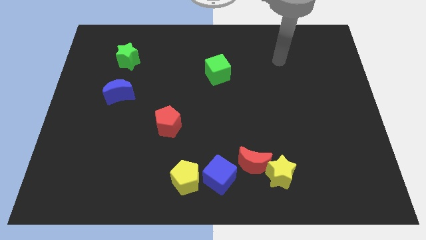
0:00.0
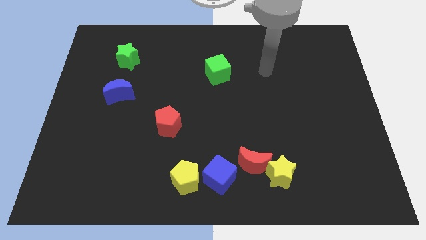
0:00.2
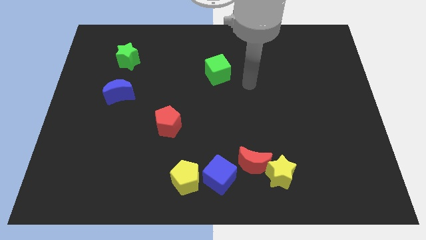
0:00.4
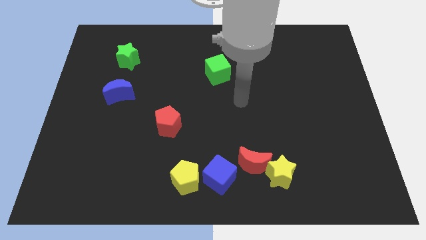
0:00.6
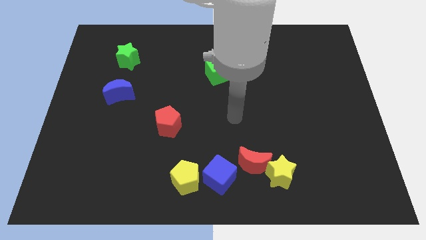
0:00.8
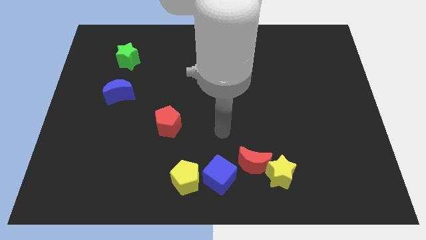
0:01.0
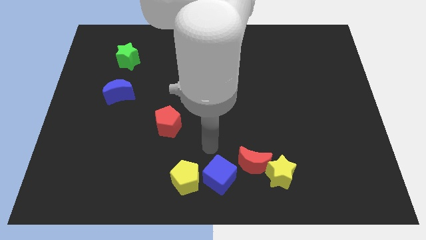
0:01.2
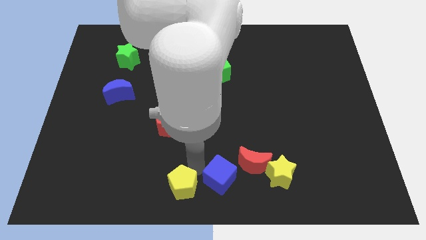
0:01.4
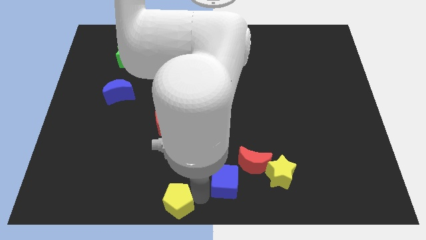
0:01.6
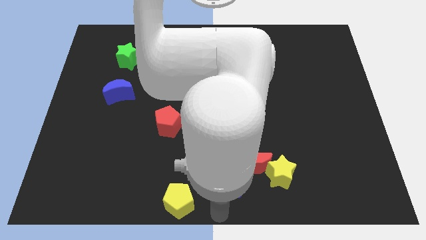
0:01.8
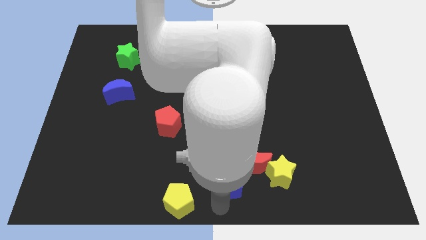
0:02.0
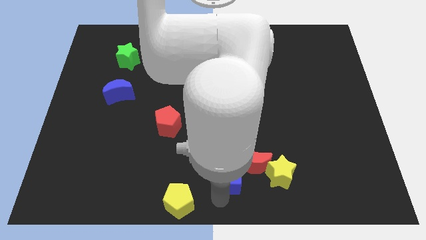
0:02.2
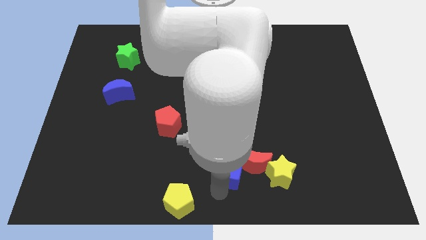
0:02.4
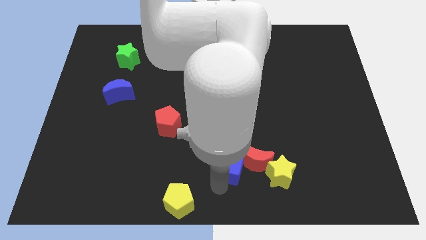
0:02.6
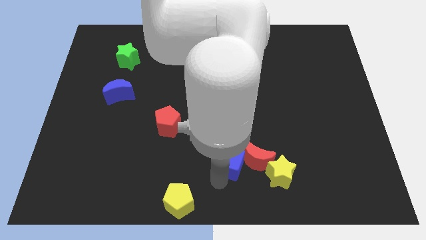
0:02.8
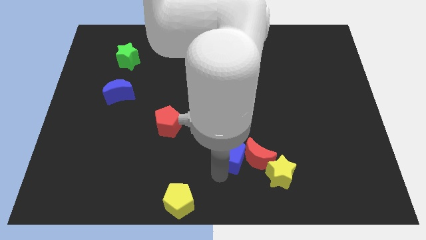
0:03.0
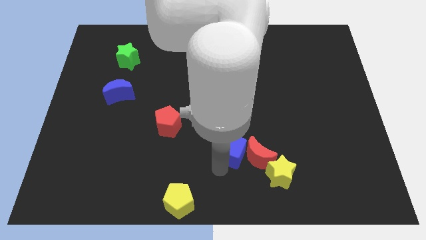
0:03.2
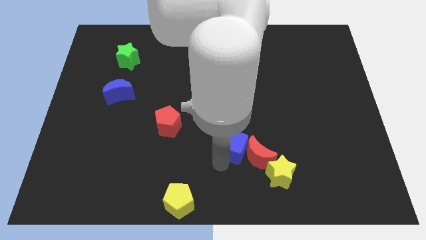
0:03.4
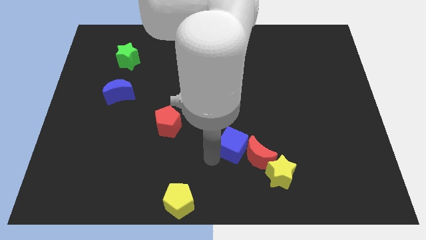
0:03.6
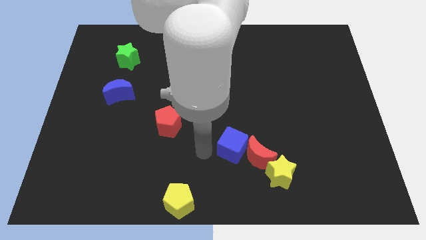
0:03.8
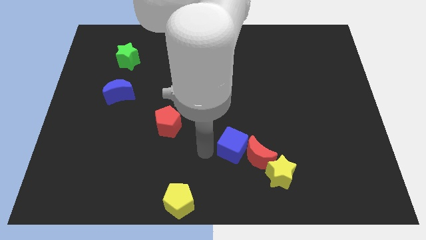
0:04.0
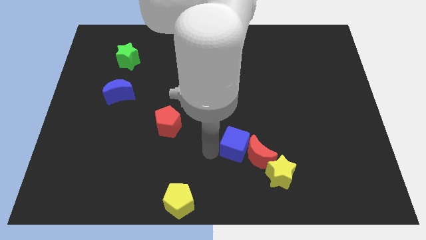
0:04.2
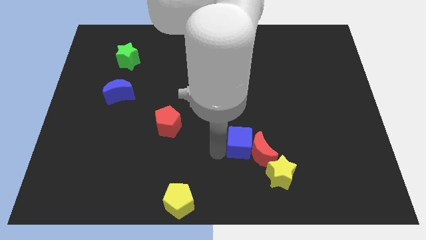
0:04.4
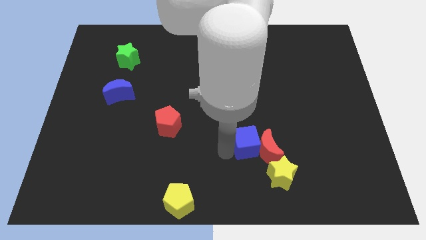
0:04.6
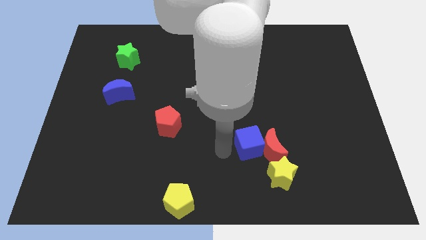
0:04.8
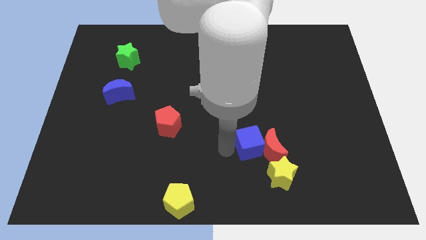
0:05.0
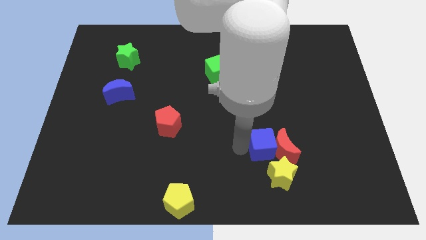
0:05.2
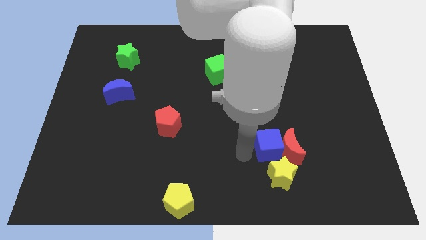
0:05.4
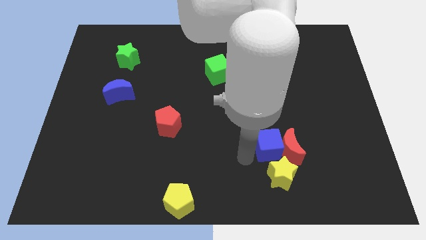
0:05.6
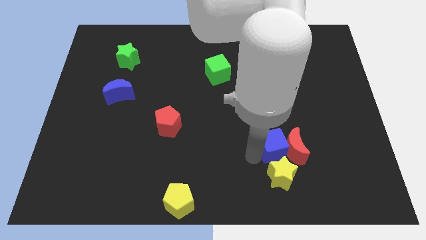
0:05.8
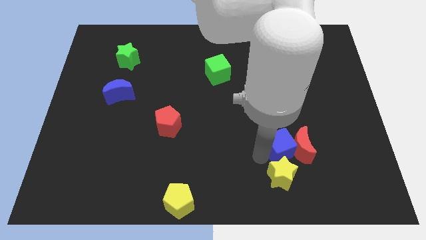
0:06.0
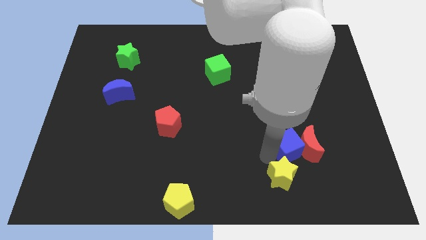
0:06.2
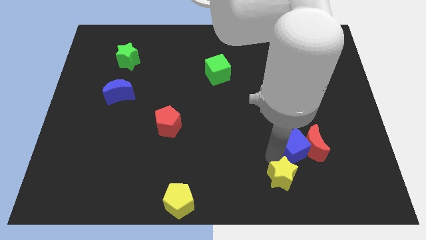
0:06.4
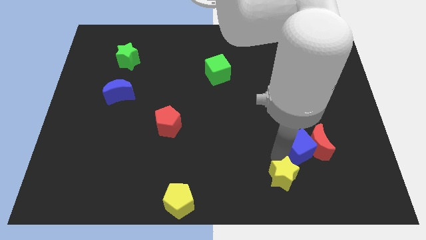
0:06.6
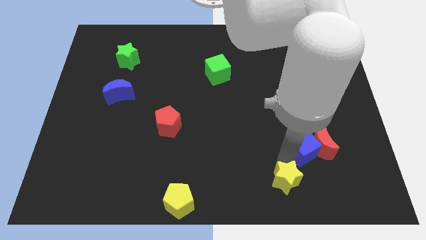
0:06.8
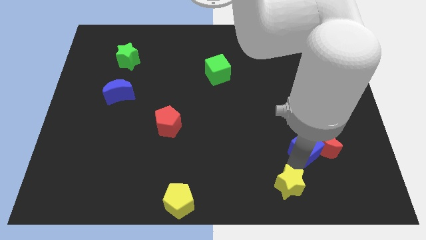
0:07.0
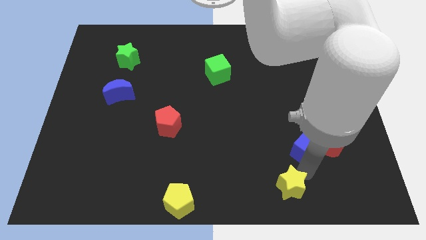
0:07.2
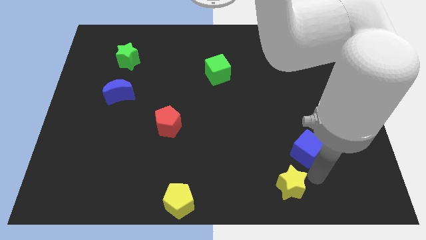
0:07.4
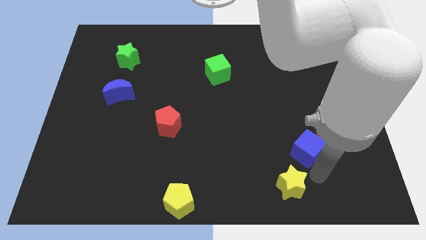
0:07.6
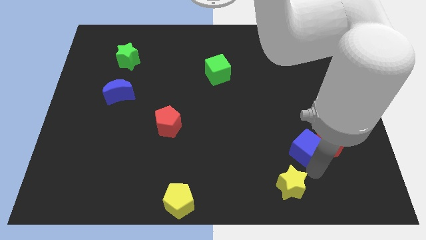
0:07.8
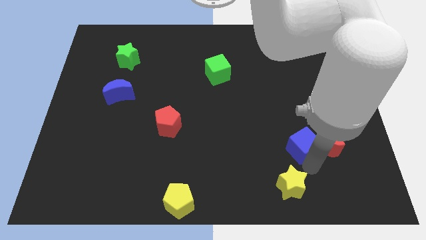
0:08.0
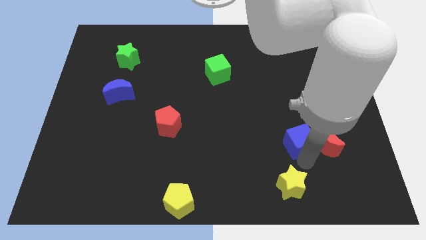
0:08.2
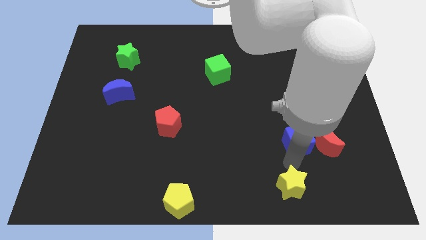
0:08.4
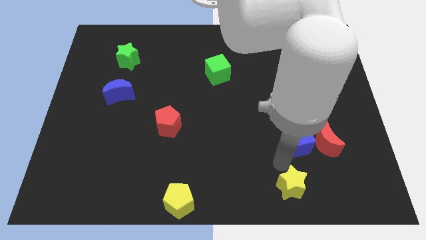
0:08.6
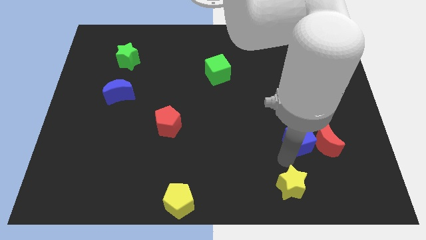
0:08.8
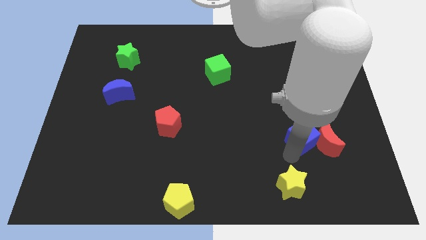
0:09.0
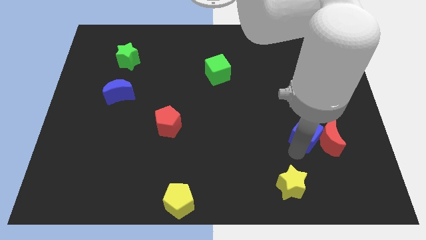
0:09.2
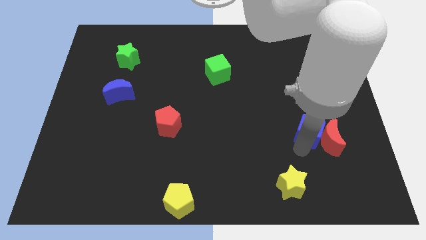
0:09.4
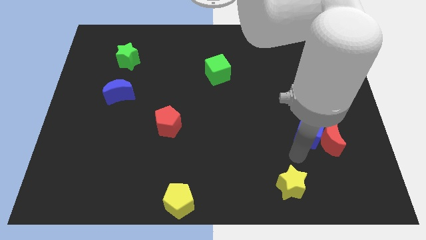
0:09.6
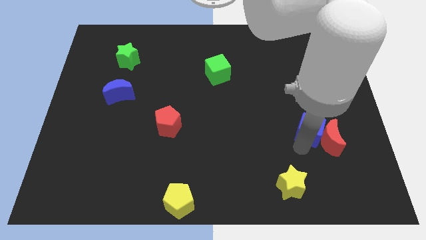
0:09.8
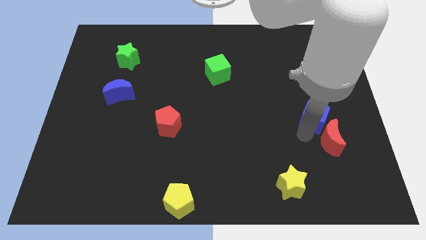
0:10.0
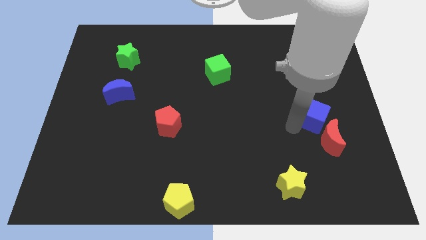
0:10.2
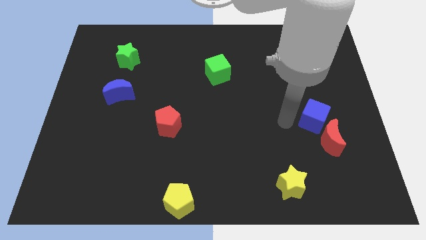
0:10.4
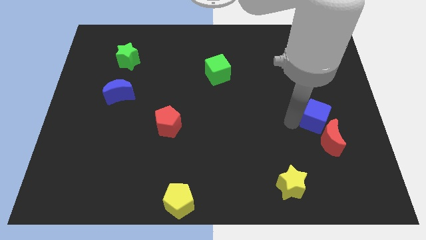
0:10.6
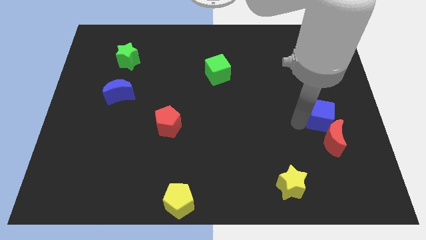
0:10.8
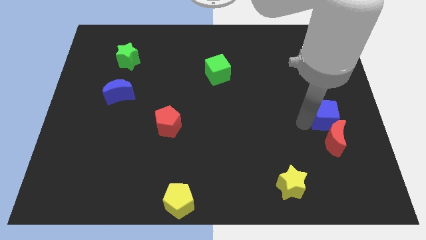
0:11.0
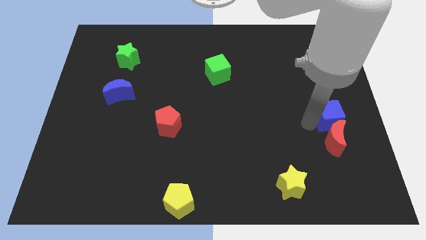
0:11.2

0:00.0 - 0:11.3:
push the blue cube to the center right

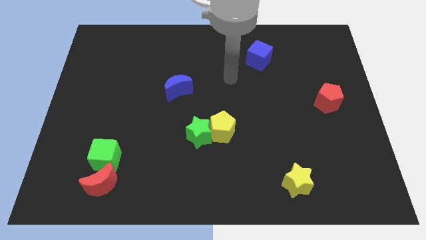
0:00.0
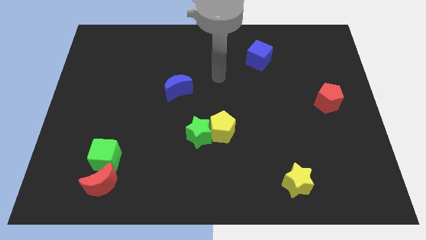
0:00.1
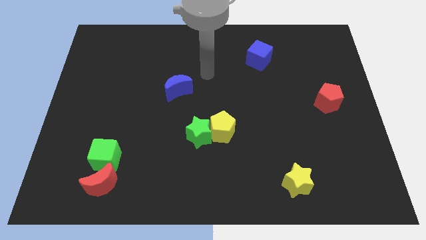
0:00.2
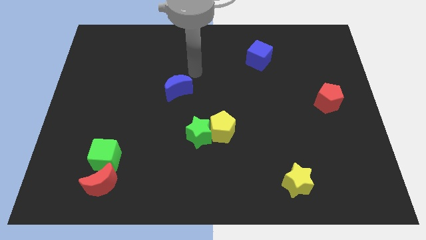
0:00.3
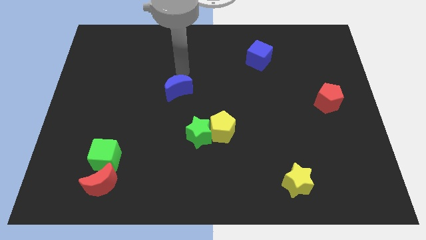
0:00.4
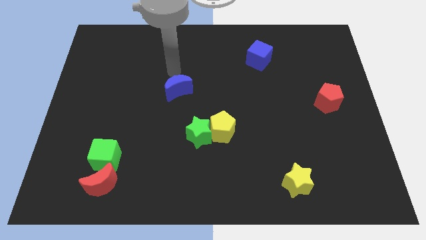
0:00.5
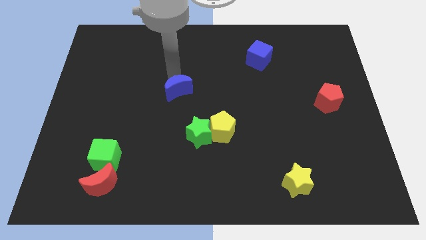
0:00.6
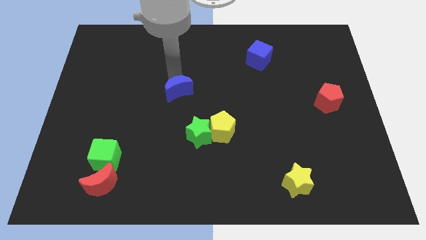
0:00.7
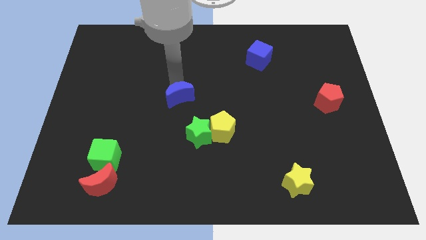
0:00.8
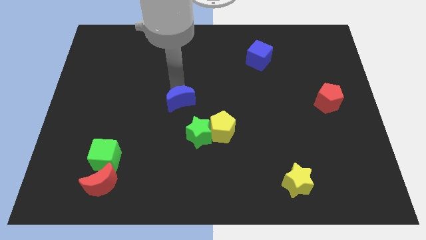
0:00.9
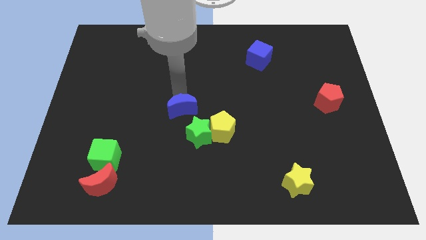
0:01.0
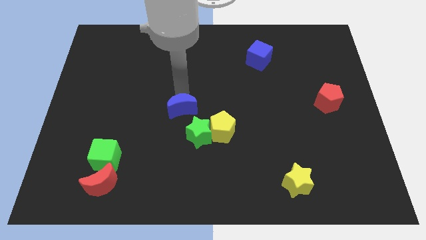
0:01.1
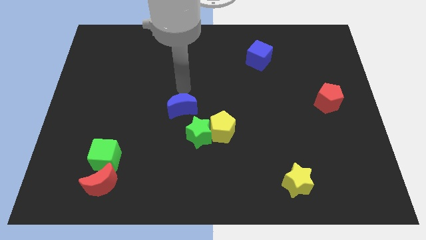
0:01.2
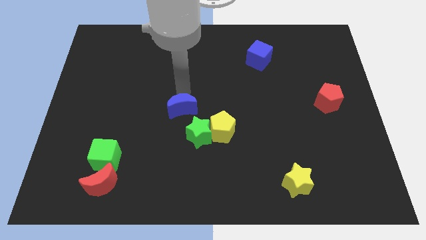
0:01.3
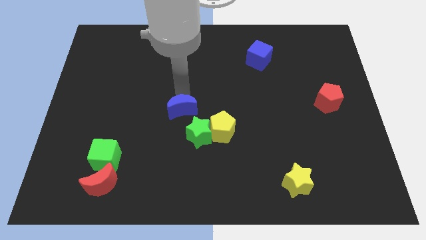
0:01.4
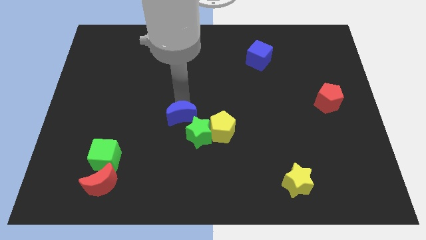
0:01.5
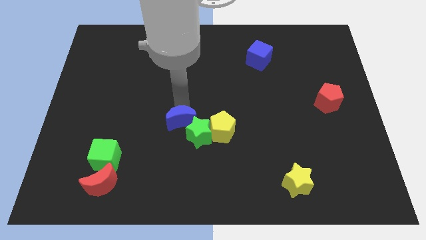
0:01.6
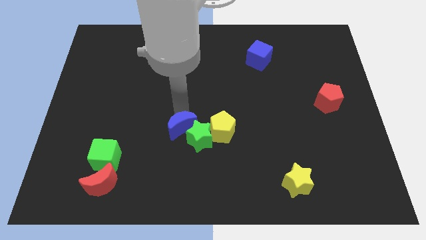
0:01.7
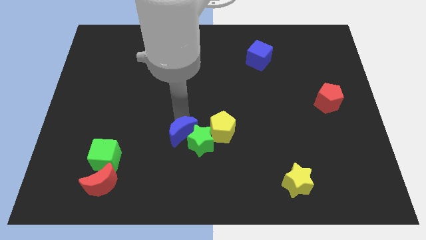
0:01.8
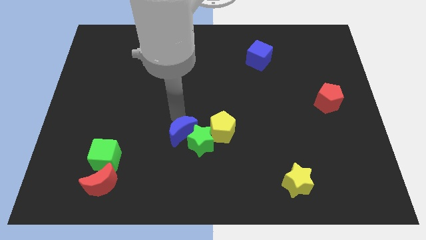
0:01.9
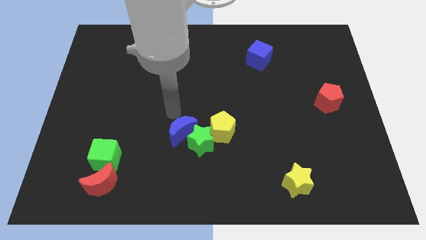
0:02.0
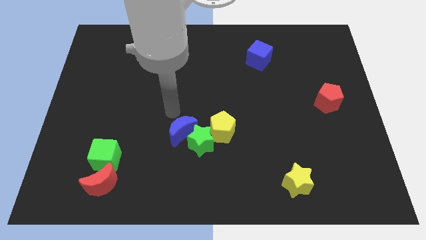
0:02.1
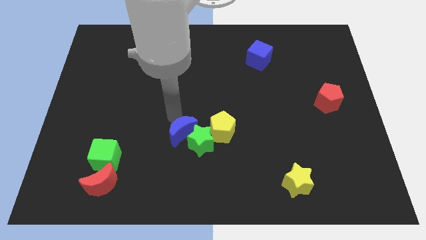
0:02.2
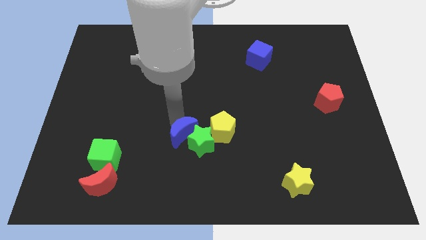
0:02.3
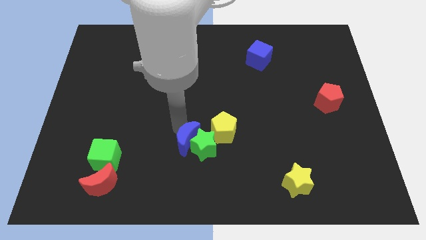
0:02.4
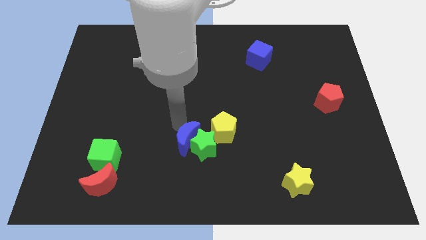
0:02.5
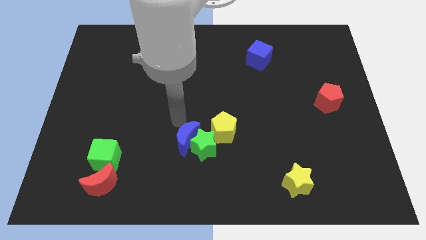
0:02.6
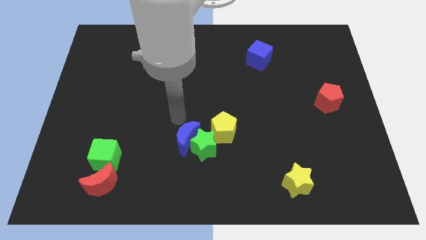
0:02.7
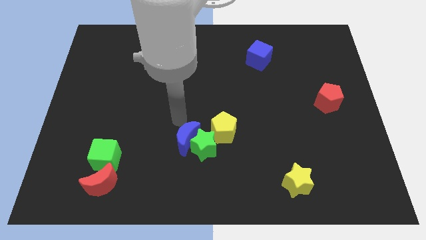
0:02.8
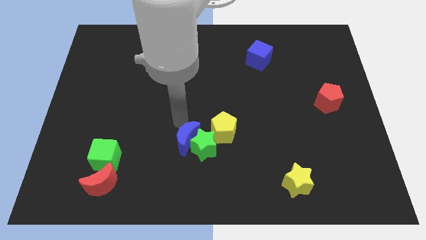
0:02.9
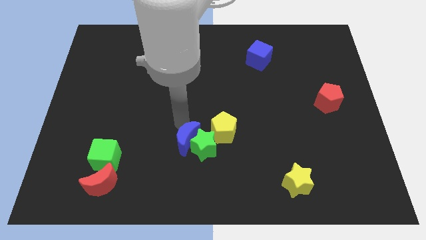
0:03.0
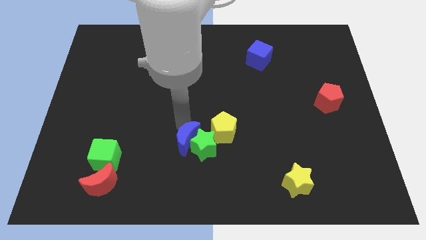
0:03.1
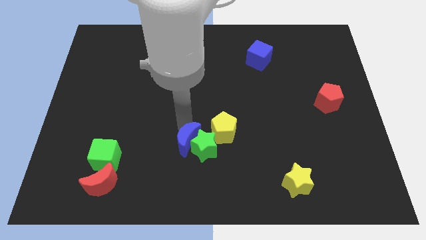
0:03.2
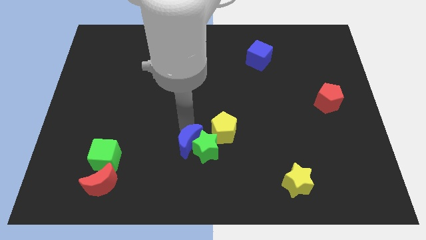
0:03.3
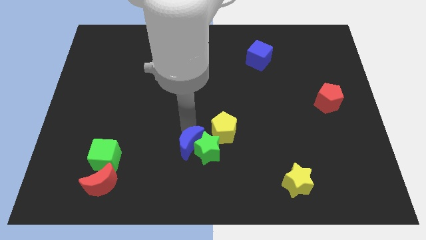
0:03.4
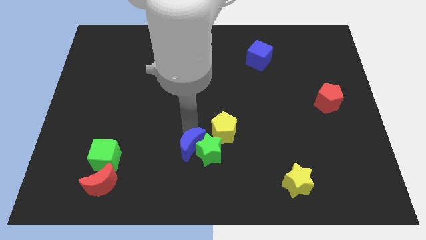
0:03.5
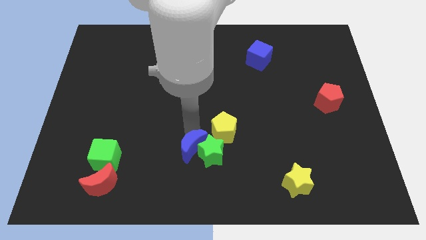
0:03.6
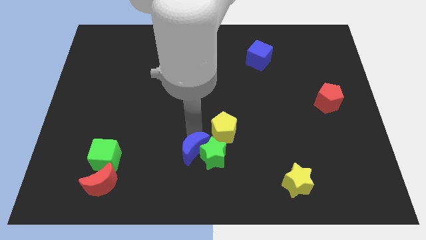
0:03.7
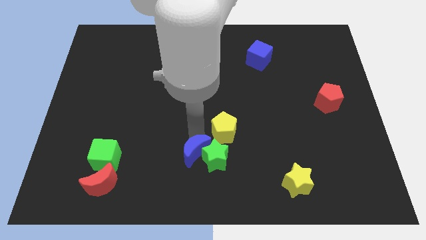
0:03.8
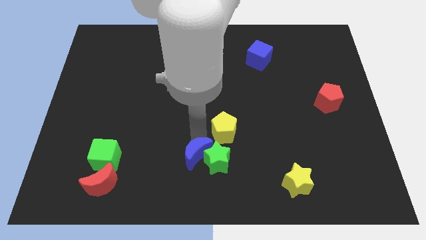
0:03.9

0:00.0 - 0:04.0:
put the blue moon to the bottom
